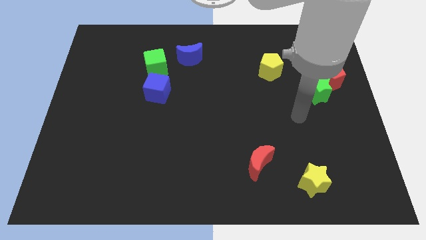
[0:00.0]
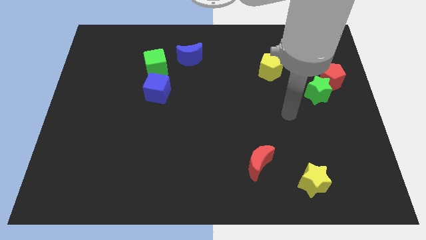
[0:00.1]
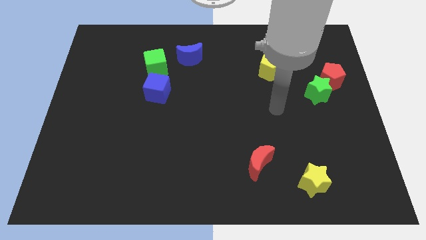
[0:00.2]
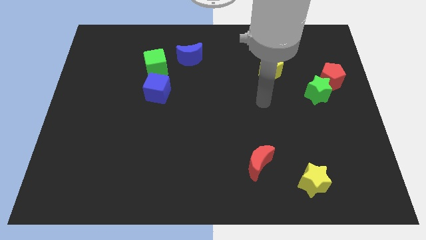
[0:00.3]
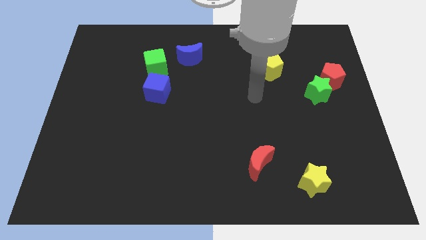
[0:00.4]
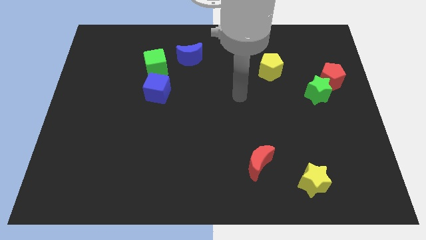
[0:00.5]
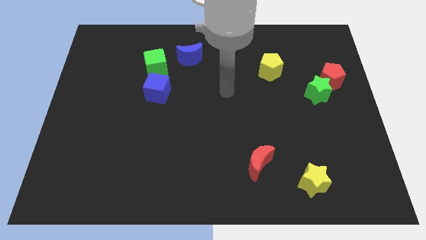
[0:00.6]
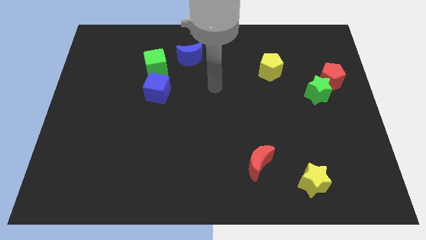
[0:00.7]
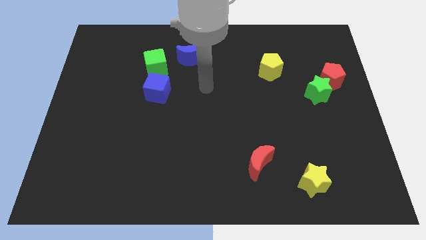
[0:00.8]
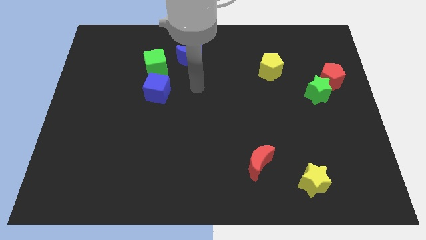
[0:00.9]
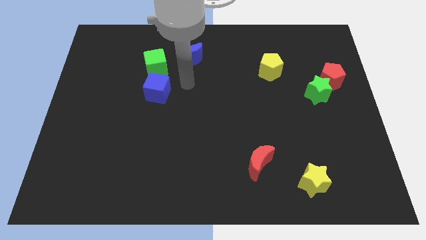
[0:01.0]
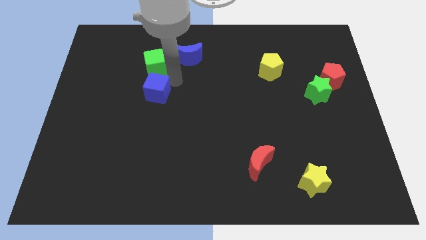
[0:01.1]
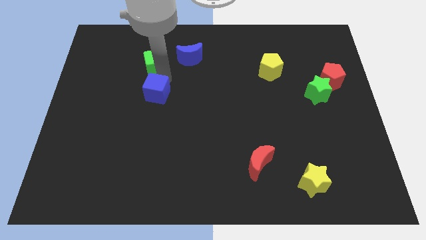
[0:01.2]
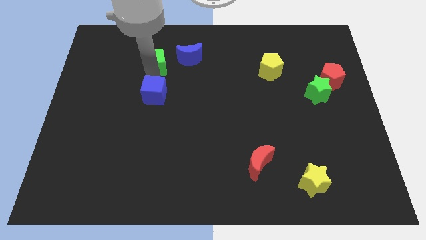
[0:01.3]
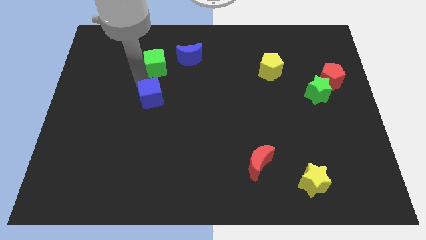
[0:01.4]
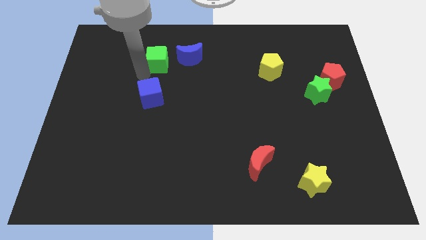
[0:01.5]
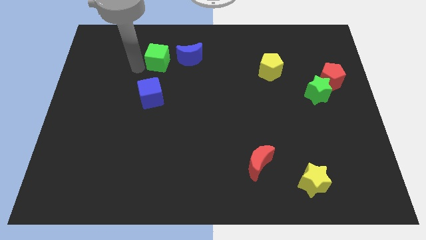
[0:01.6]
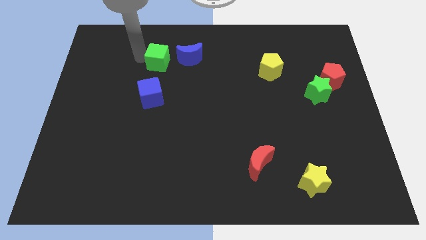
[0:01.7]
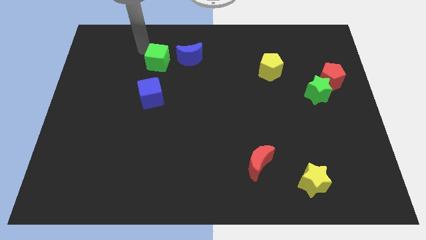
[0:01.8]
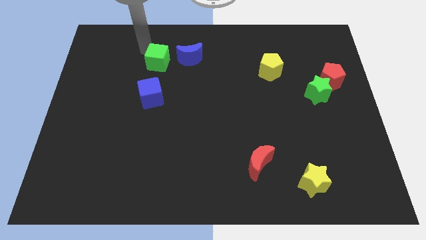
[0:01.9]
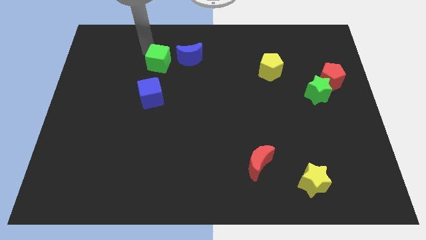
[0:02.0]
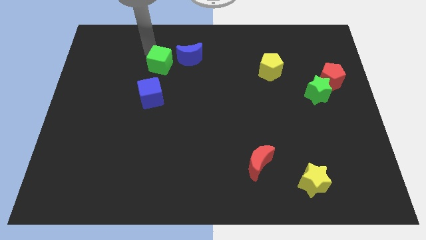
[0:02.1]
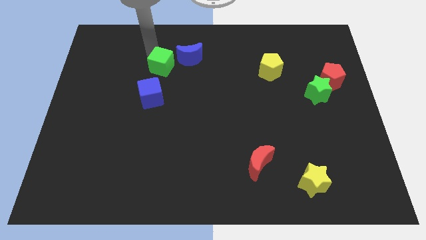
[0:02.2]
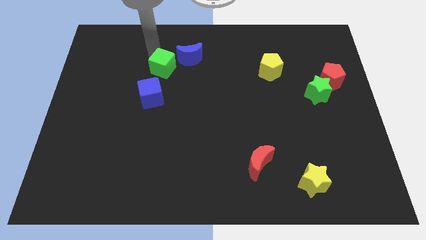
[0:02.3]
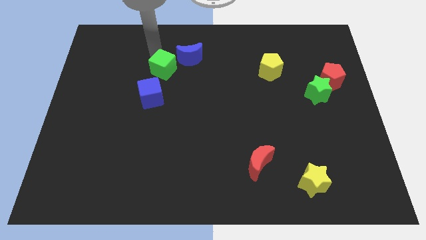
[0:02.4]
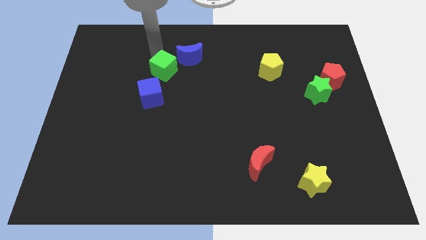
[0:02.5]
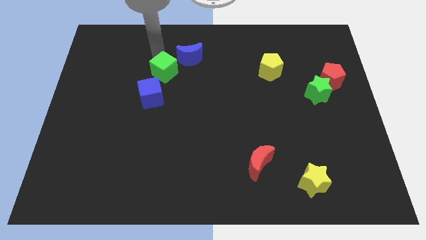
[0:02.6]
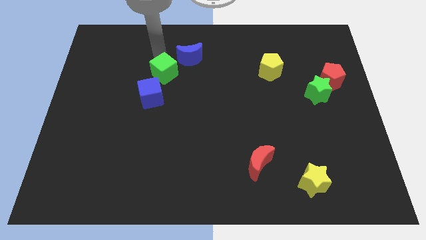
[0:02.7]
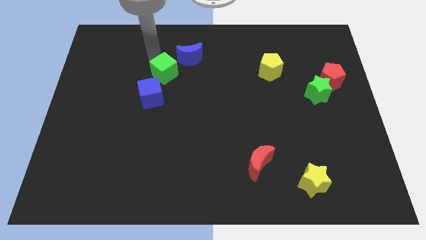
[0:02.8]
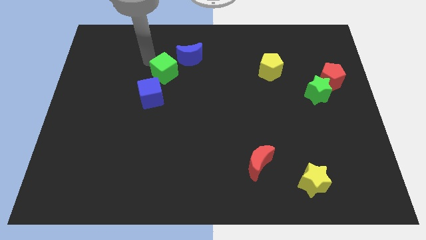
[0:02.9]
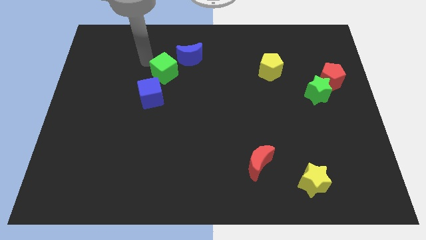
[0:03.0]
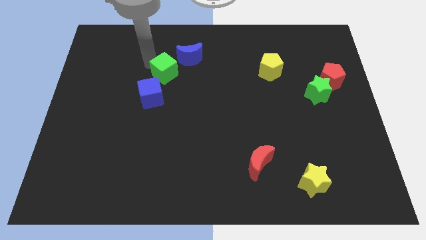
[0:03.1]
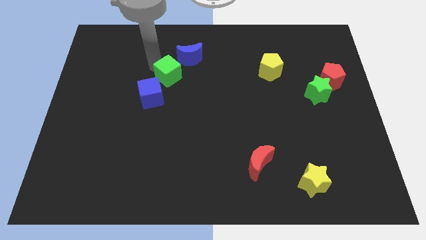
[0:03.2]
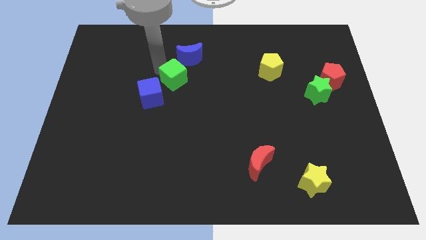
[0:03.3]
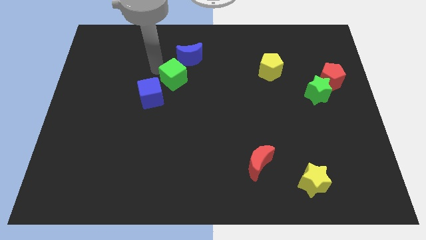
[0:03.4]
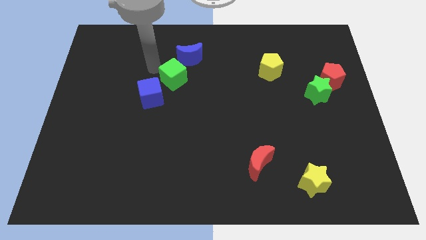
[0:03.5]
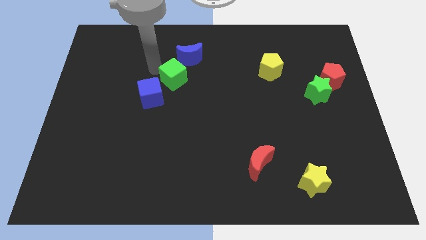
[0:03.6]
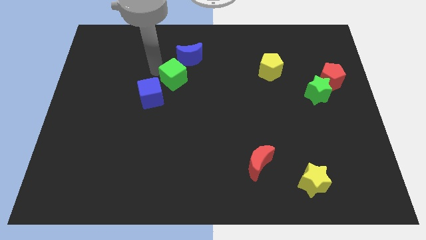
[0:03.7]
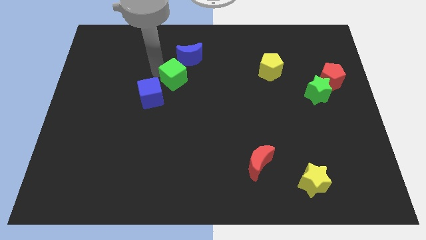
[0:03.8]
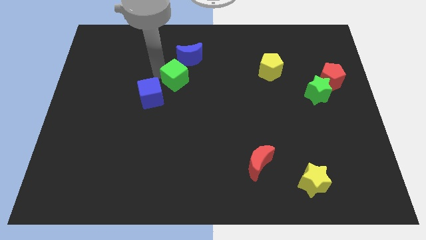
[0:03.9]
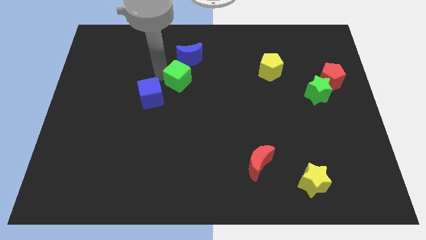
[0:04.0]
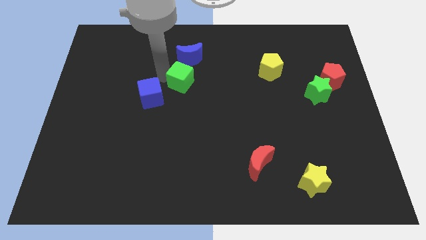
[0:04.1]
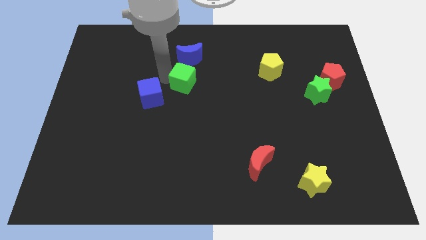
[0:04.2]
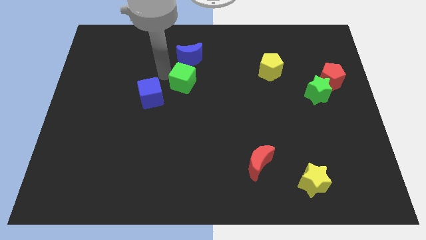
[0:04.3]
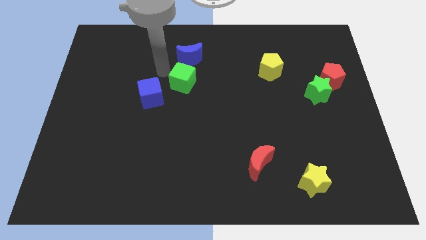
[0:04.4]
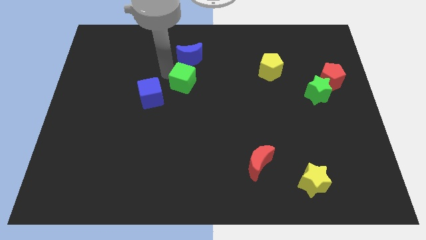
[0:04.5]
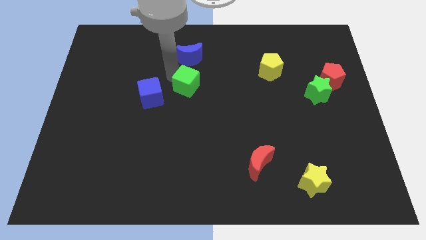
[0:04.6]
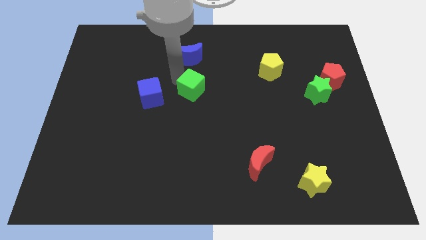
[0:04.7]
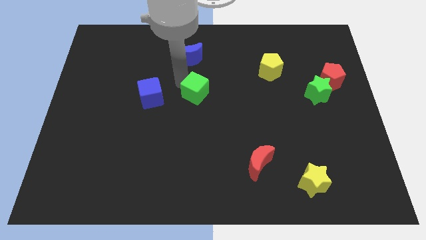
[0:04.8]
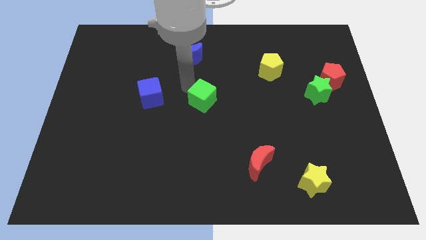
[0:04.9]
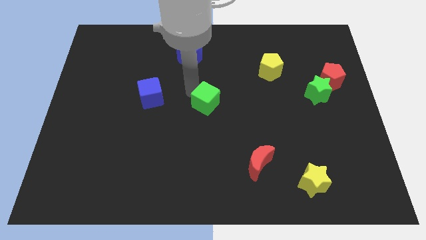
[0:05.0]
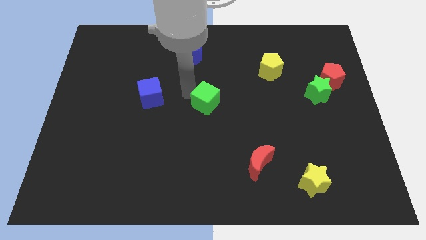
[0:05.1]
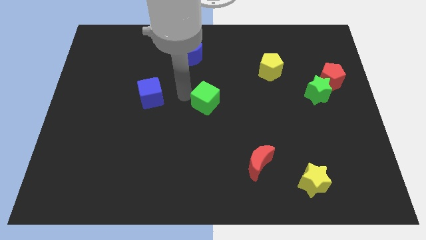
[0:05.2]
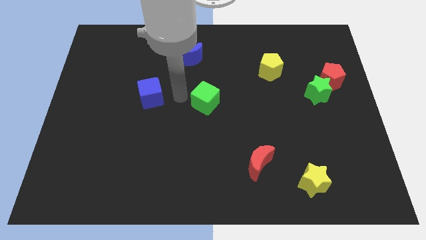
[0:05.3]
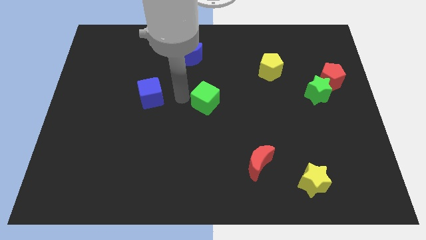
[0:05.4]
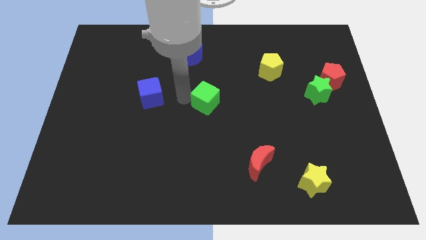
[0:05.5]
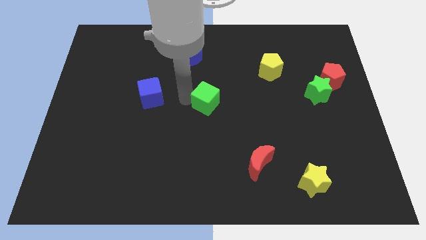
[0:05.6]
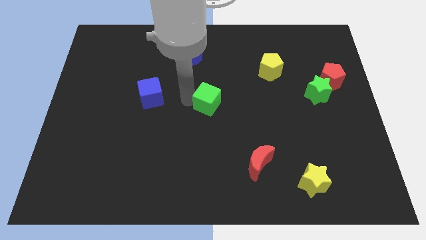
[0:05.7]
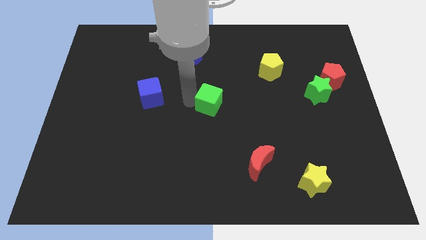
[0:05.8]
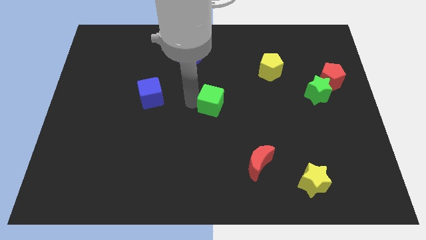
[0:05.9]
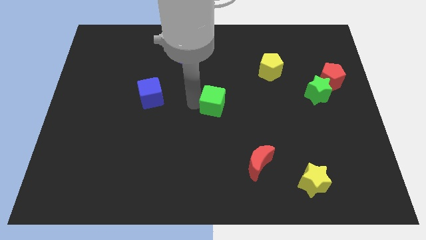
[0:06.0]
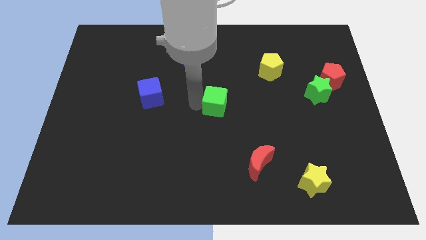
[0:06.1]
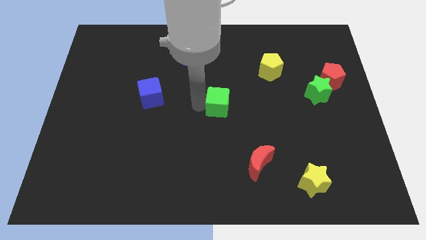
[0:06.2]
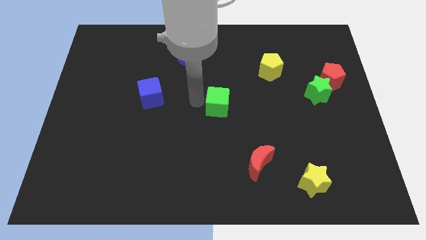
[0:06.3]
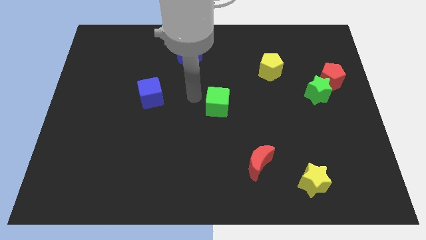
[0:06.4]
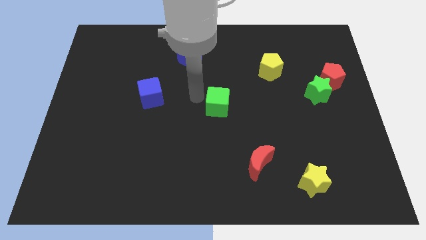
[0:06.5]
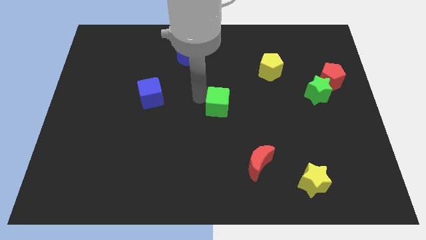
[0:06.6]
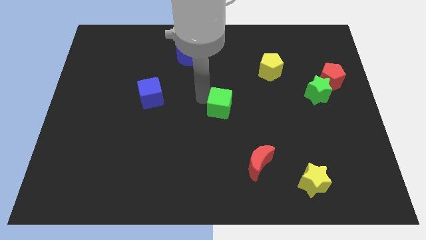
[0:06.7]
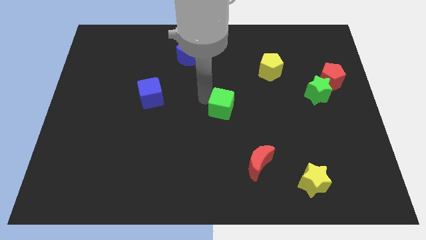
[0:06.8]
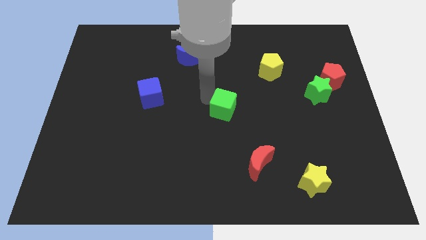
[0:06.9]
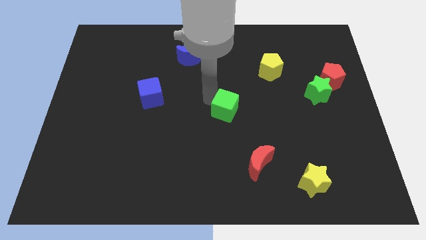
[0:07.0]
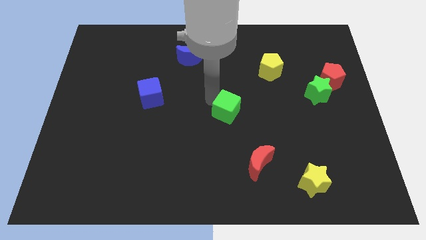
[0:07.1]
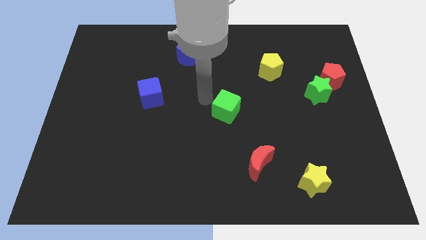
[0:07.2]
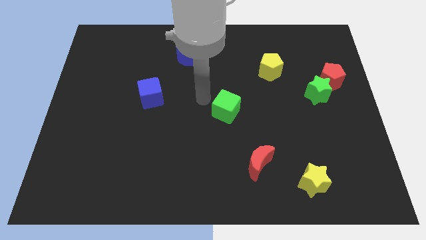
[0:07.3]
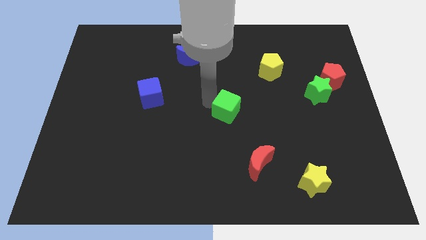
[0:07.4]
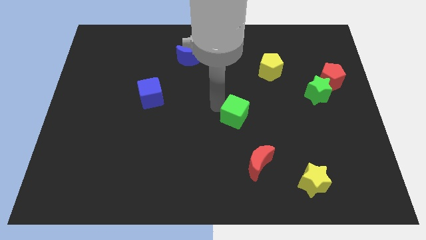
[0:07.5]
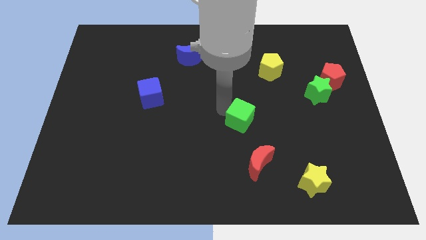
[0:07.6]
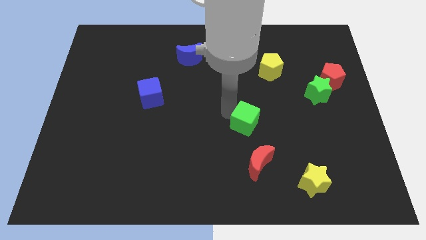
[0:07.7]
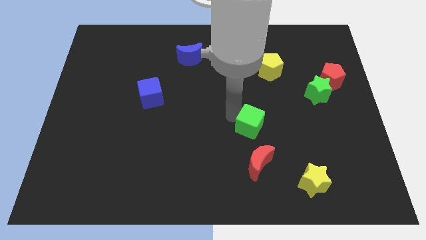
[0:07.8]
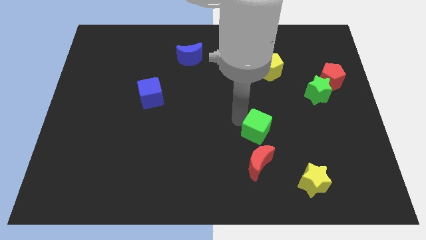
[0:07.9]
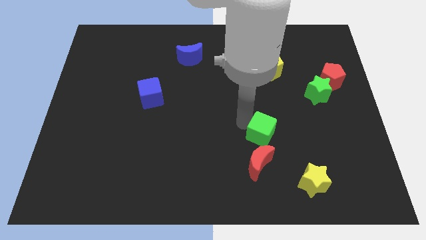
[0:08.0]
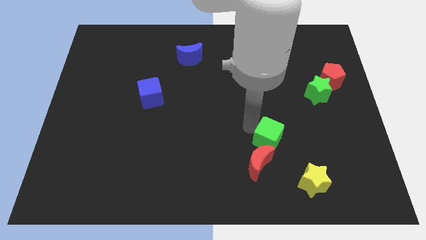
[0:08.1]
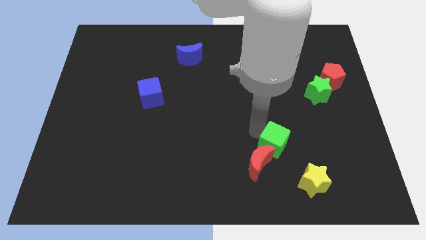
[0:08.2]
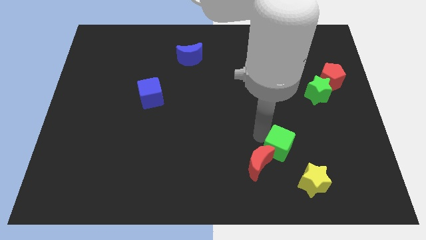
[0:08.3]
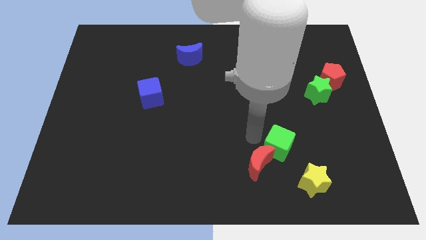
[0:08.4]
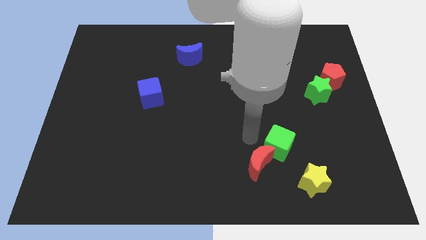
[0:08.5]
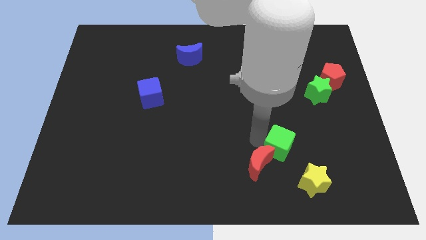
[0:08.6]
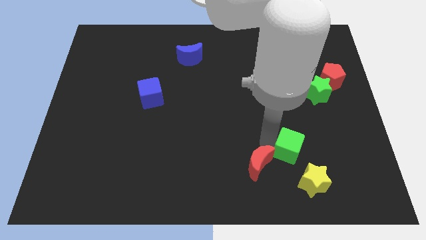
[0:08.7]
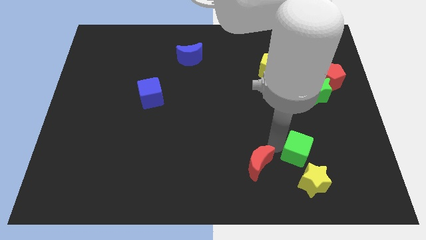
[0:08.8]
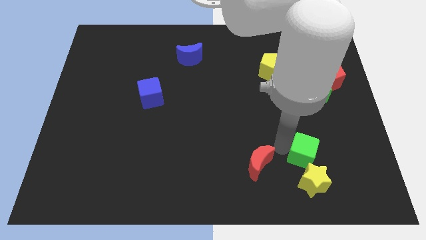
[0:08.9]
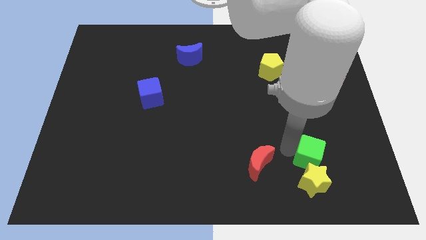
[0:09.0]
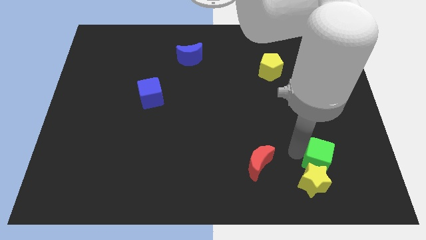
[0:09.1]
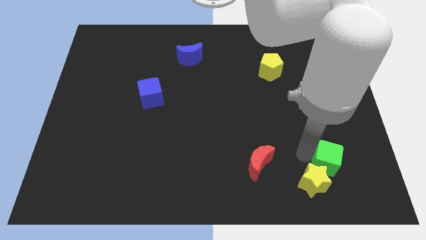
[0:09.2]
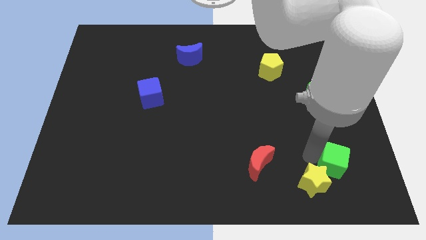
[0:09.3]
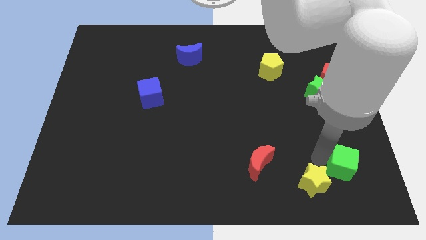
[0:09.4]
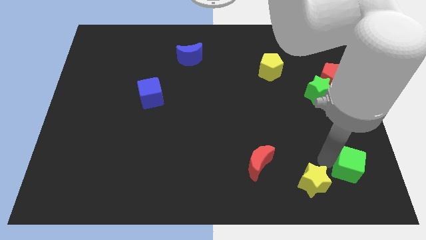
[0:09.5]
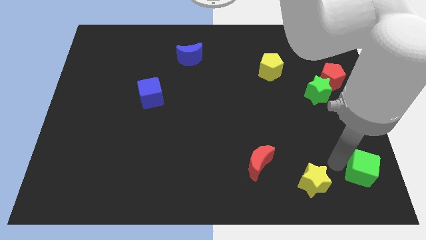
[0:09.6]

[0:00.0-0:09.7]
push the green cube to the bottom right of the board
